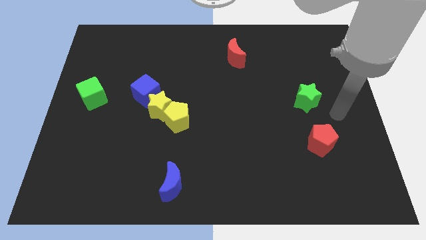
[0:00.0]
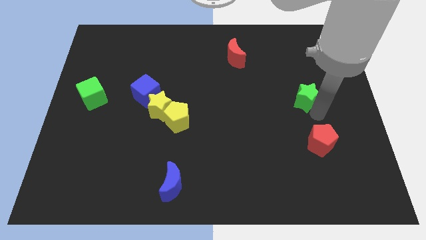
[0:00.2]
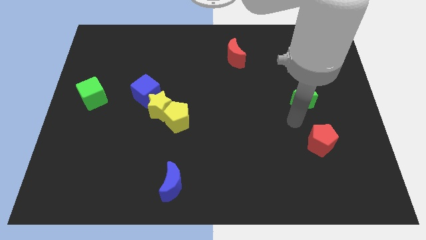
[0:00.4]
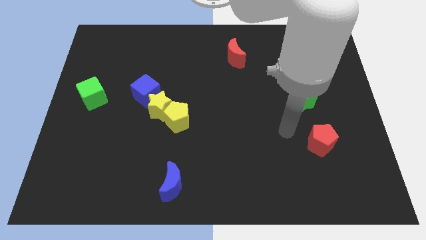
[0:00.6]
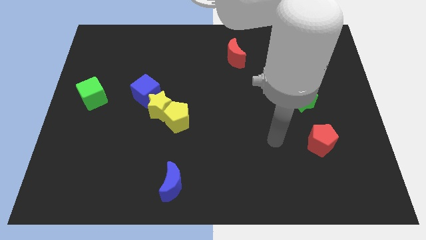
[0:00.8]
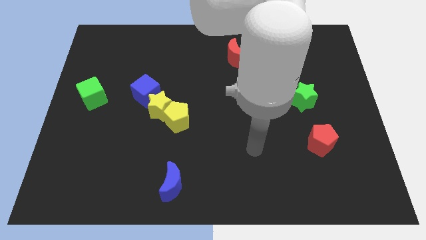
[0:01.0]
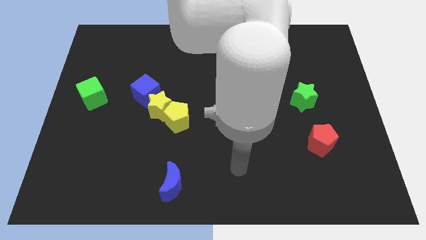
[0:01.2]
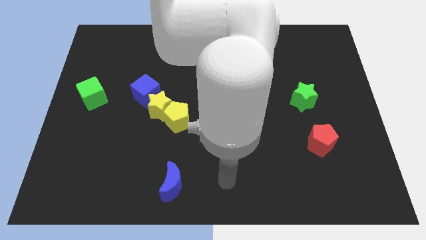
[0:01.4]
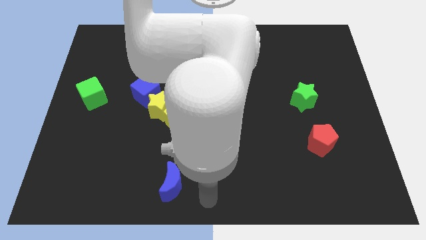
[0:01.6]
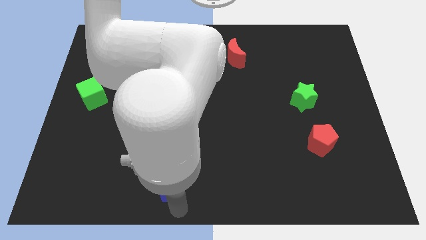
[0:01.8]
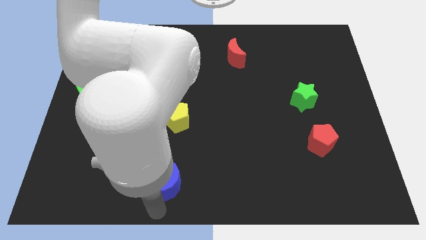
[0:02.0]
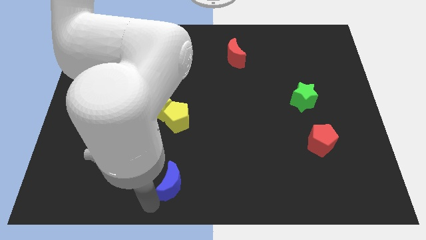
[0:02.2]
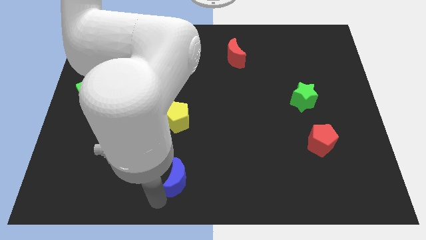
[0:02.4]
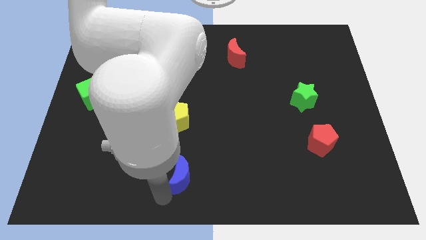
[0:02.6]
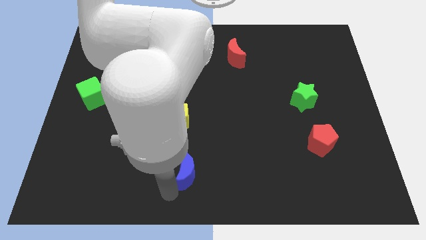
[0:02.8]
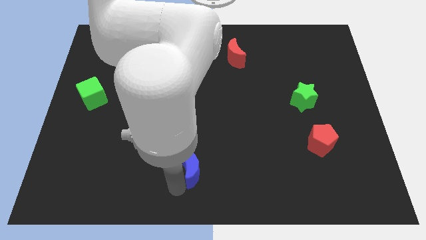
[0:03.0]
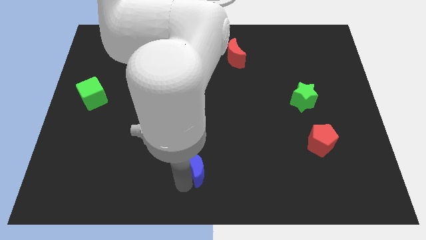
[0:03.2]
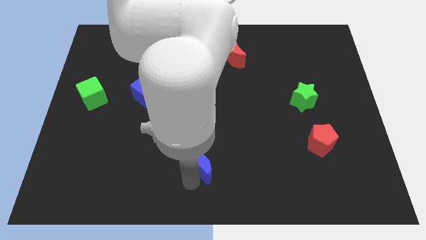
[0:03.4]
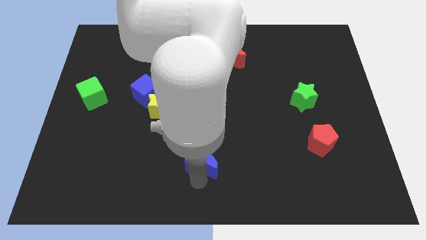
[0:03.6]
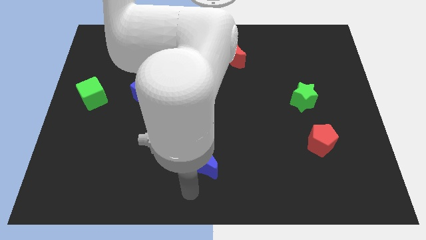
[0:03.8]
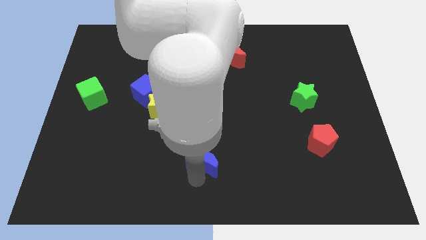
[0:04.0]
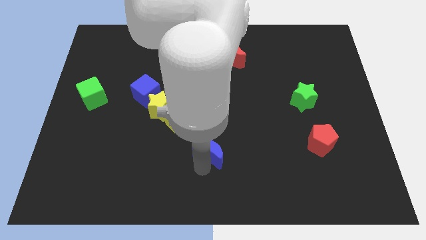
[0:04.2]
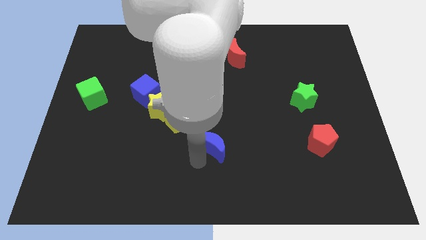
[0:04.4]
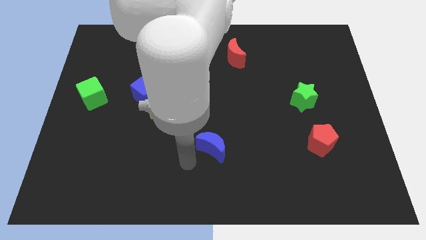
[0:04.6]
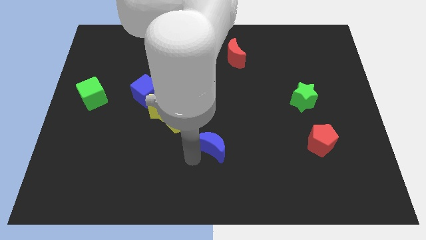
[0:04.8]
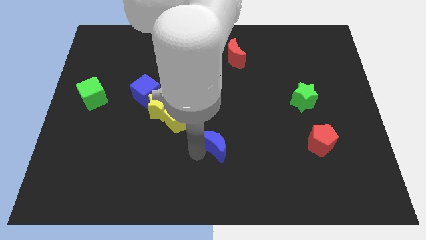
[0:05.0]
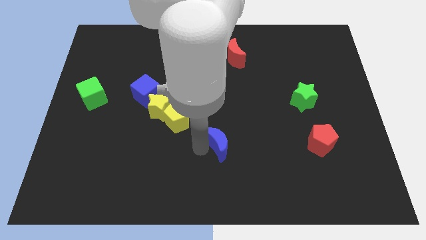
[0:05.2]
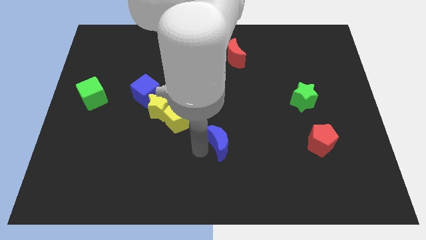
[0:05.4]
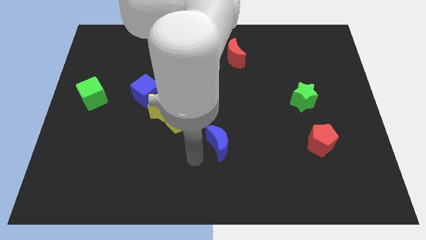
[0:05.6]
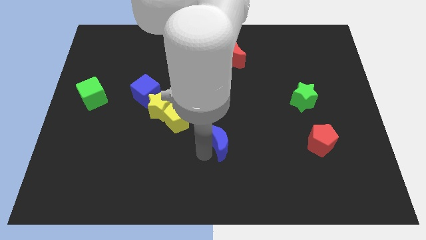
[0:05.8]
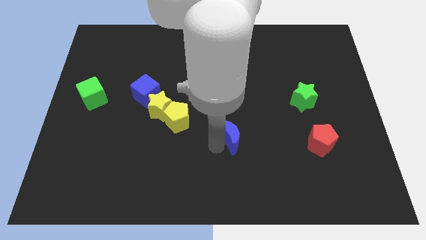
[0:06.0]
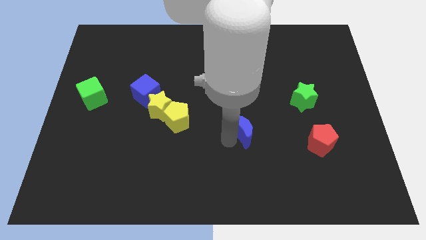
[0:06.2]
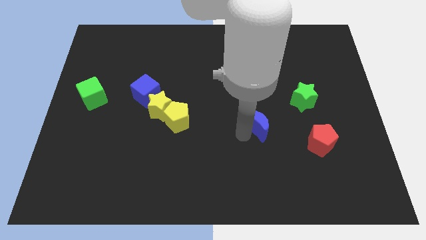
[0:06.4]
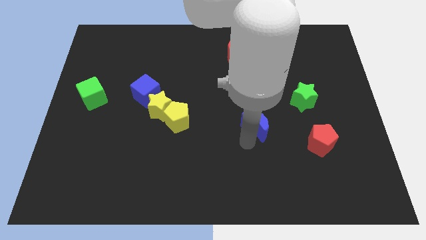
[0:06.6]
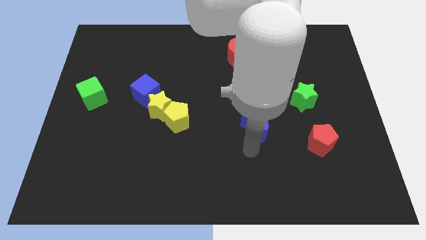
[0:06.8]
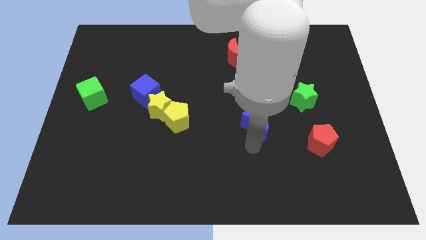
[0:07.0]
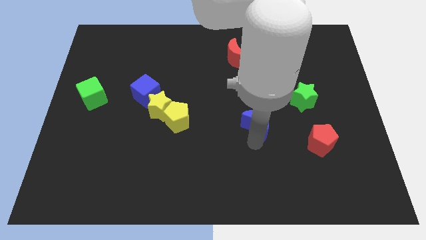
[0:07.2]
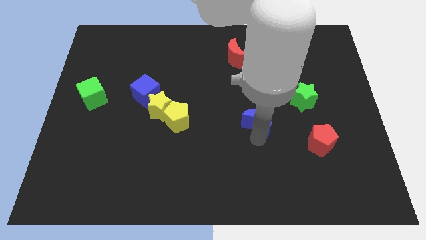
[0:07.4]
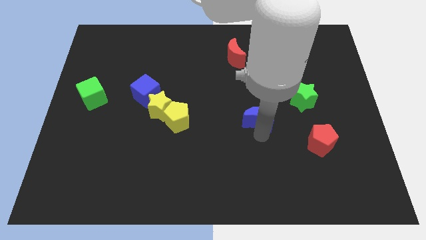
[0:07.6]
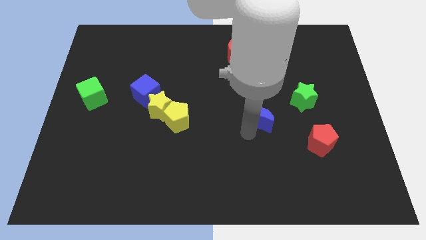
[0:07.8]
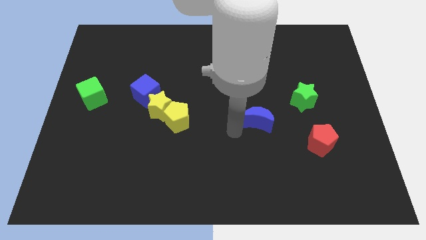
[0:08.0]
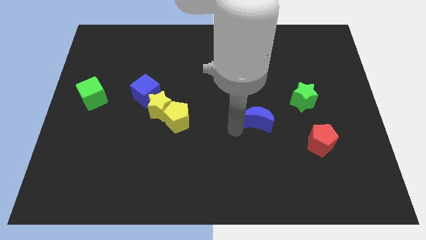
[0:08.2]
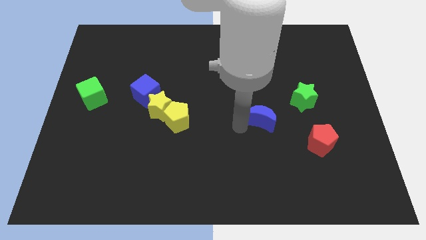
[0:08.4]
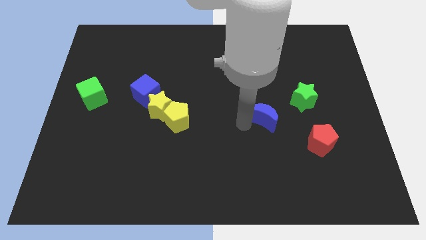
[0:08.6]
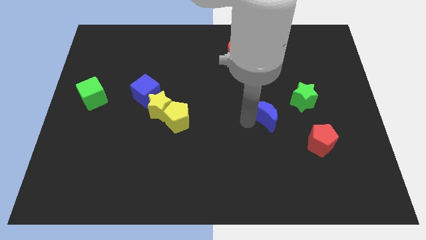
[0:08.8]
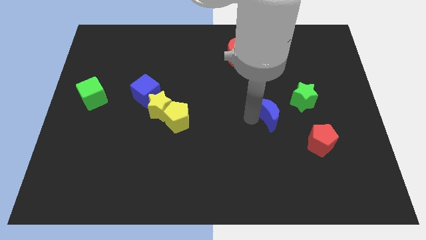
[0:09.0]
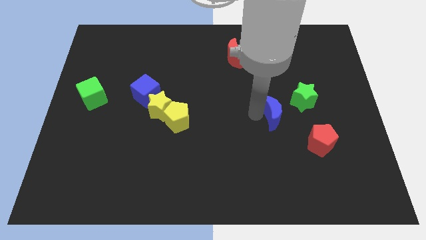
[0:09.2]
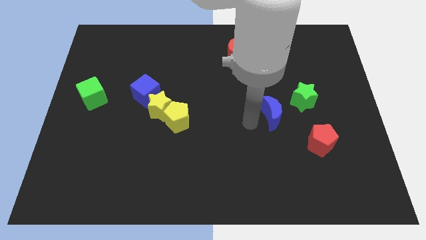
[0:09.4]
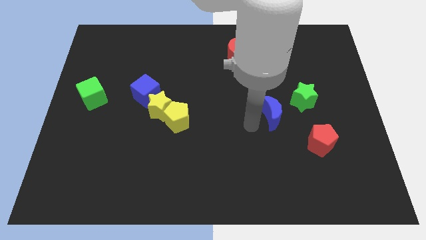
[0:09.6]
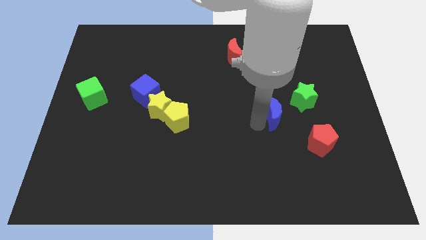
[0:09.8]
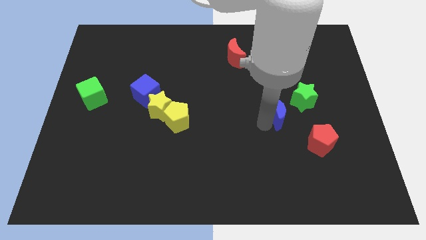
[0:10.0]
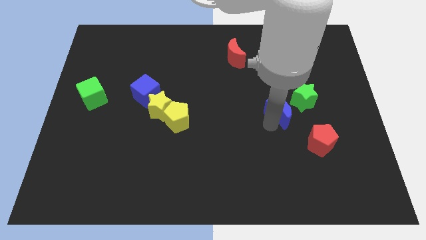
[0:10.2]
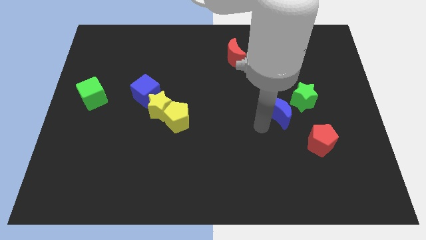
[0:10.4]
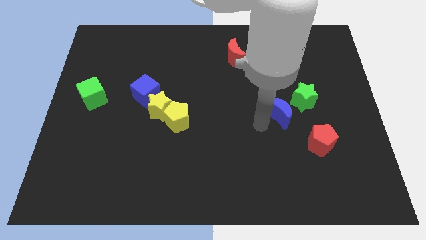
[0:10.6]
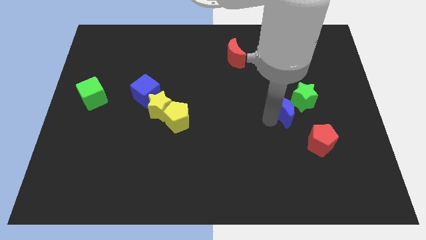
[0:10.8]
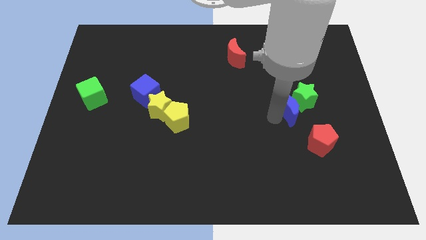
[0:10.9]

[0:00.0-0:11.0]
move the blue moon towards the green star

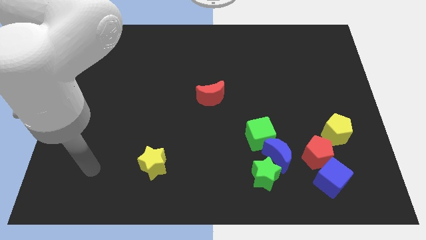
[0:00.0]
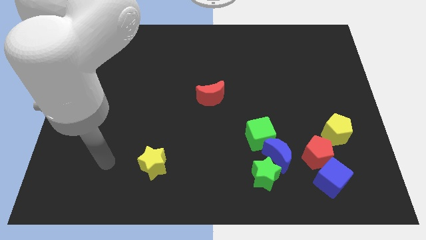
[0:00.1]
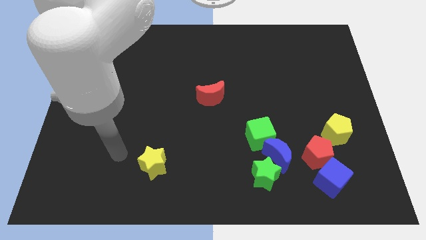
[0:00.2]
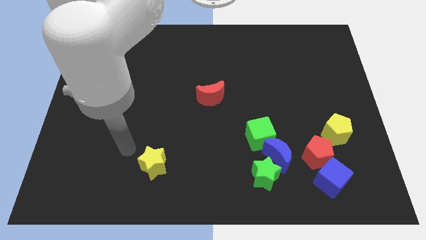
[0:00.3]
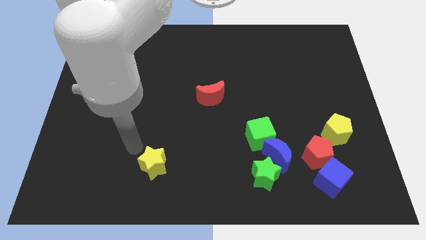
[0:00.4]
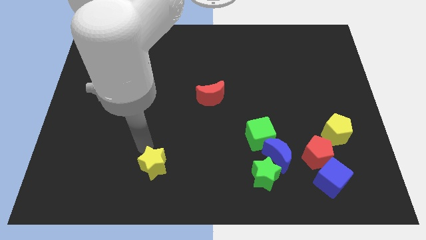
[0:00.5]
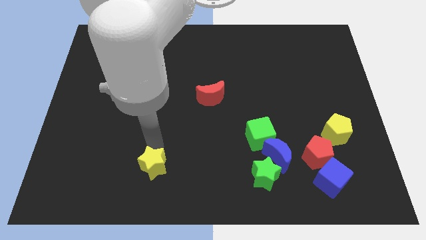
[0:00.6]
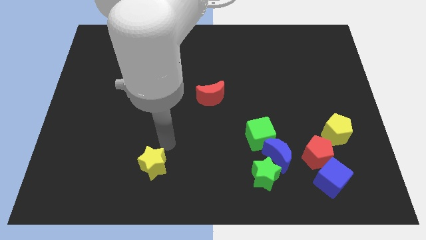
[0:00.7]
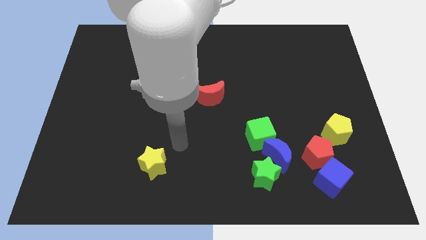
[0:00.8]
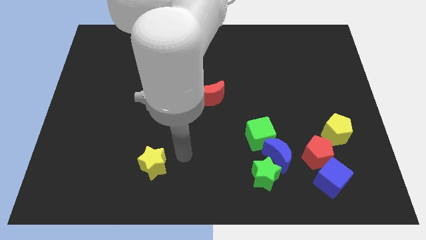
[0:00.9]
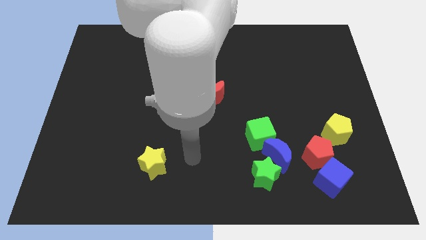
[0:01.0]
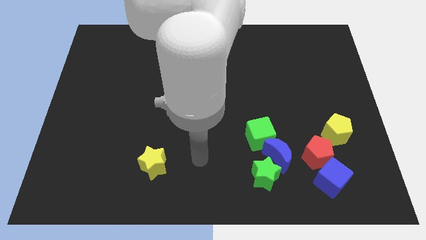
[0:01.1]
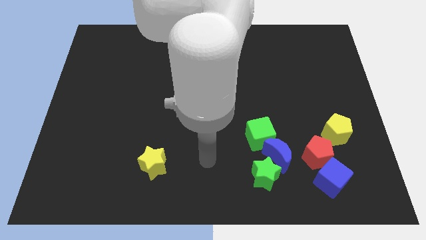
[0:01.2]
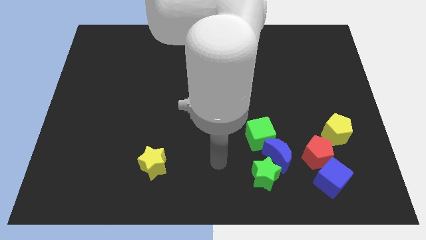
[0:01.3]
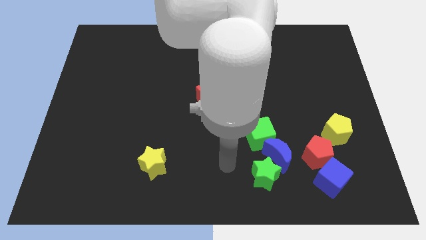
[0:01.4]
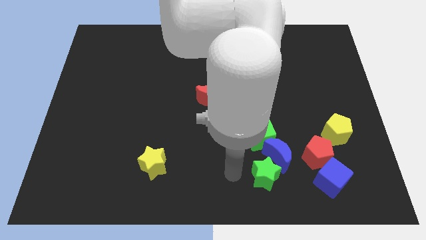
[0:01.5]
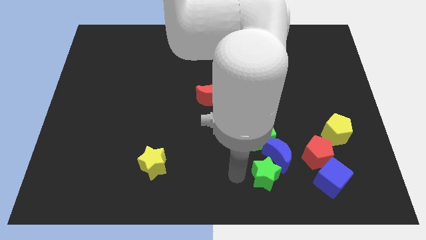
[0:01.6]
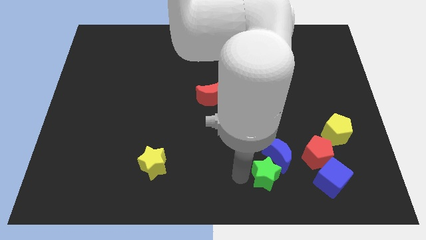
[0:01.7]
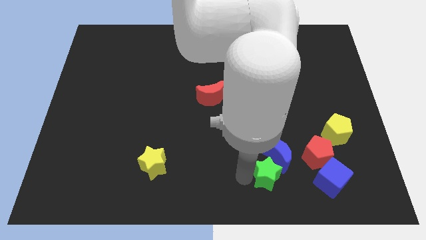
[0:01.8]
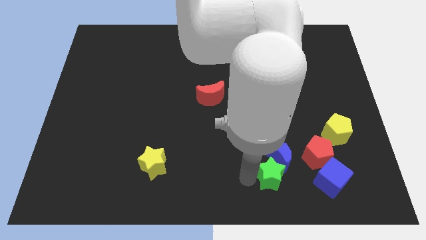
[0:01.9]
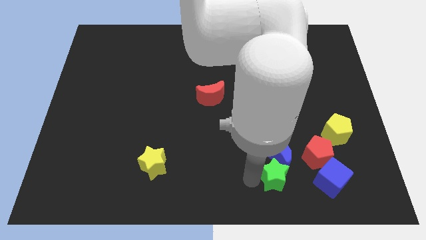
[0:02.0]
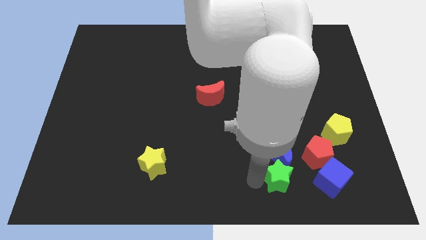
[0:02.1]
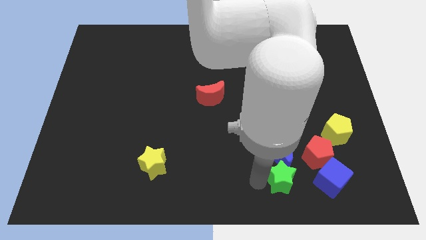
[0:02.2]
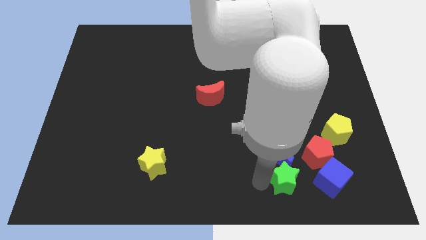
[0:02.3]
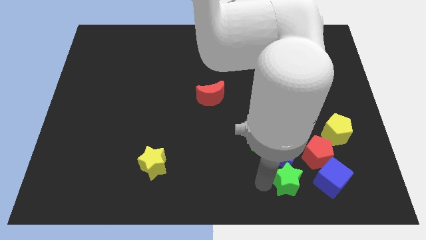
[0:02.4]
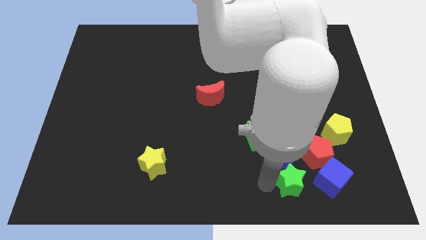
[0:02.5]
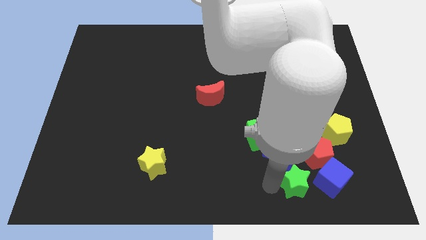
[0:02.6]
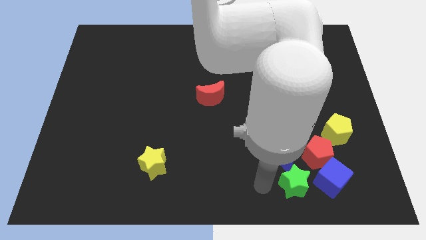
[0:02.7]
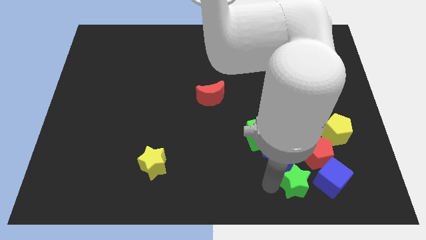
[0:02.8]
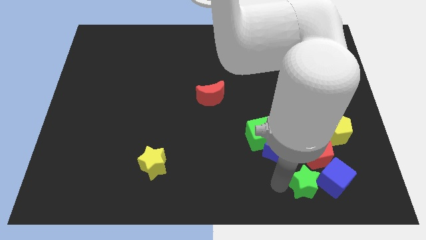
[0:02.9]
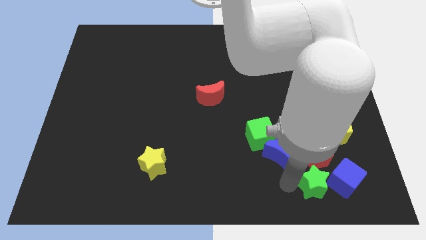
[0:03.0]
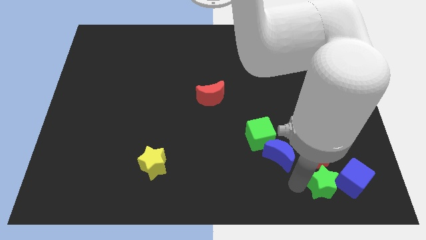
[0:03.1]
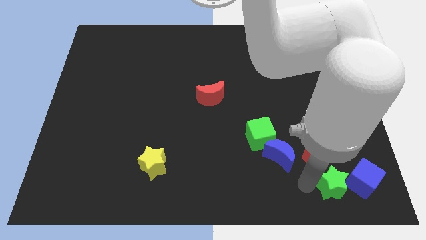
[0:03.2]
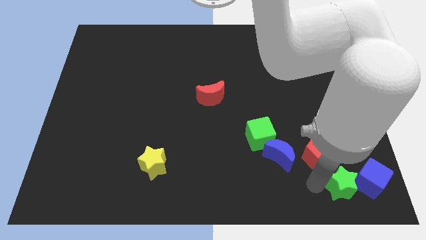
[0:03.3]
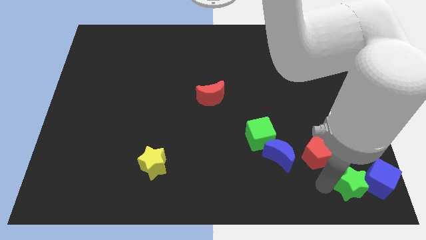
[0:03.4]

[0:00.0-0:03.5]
put the green star towards the blue cube
